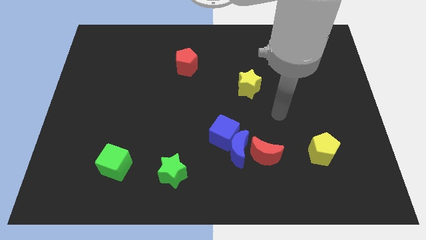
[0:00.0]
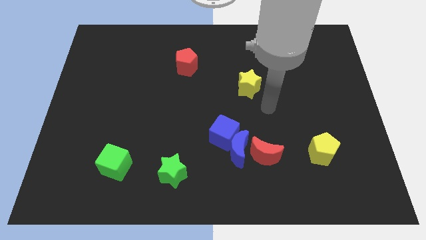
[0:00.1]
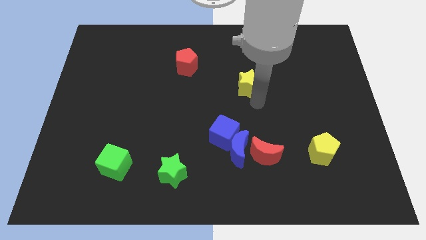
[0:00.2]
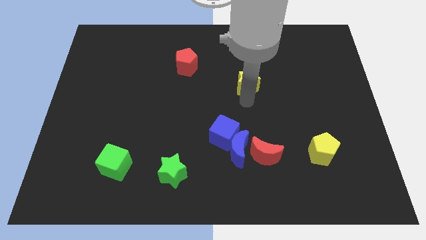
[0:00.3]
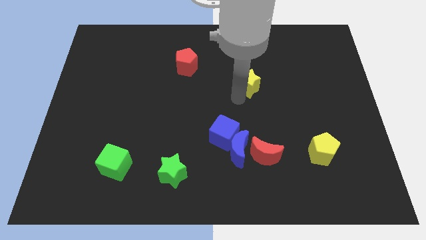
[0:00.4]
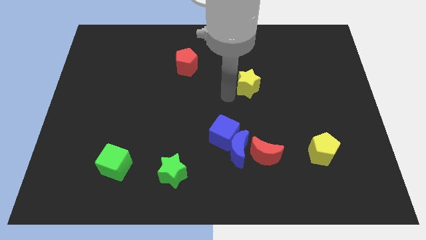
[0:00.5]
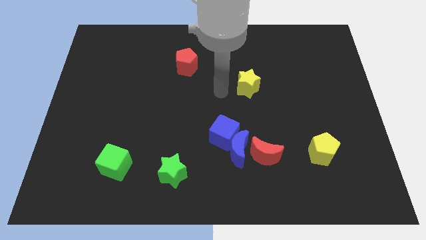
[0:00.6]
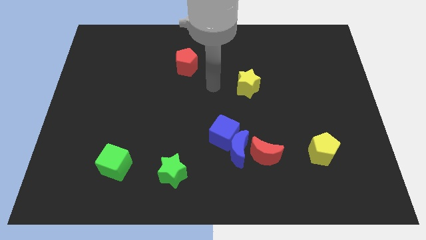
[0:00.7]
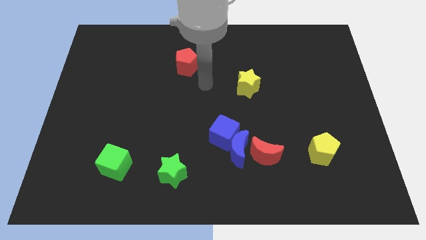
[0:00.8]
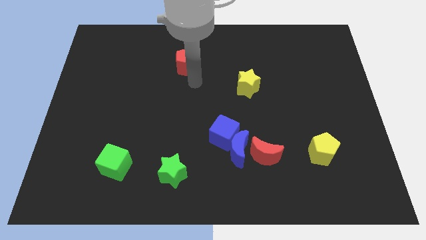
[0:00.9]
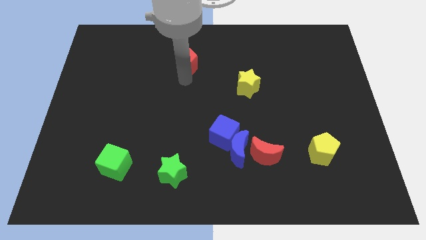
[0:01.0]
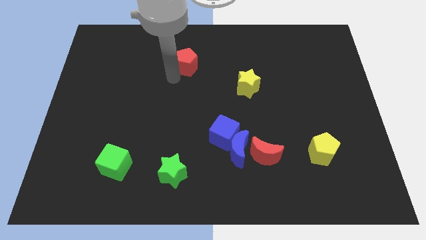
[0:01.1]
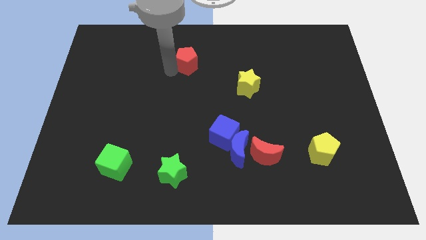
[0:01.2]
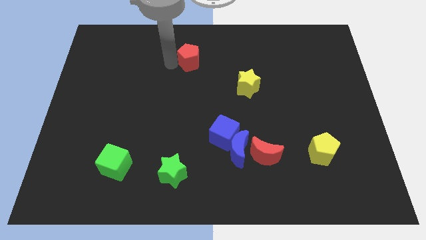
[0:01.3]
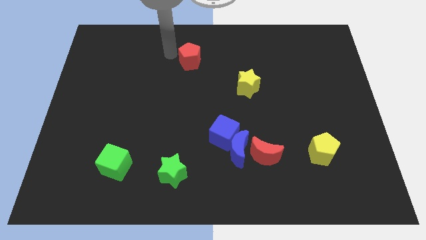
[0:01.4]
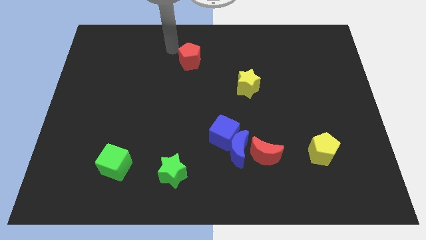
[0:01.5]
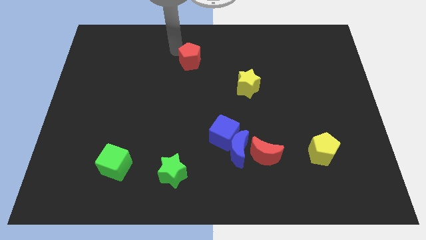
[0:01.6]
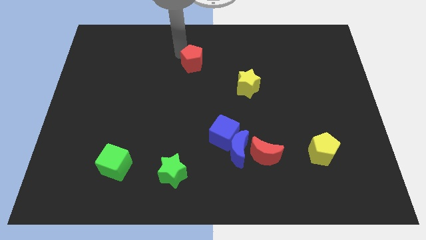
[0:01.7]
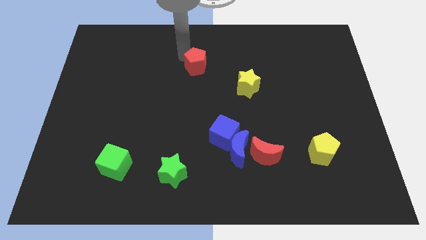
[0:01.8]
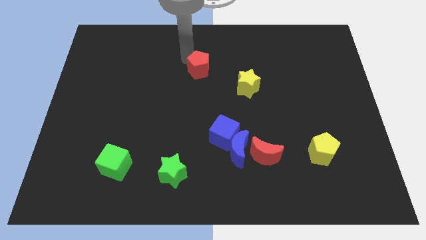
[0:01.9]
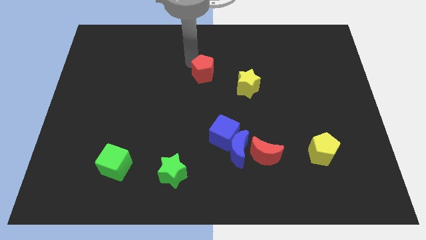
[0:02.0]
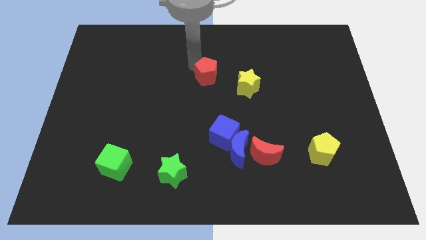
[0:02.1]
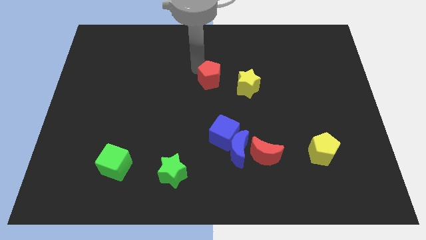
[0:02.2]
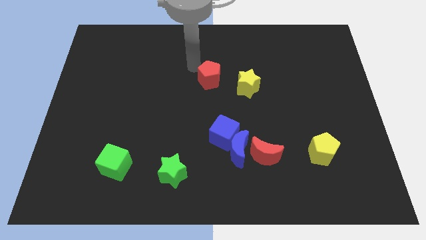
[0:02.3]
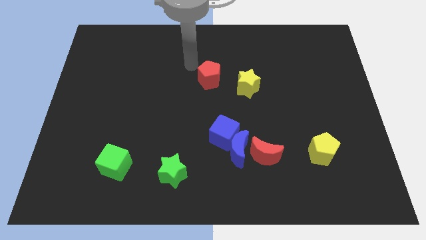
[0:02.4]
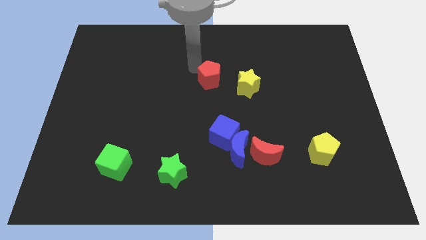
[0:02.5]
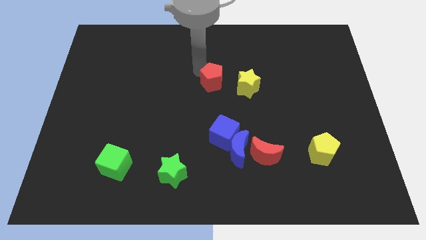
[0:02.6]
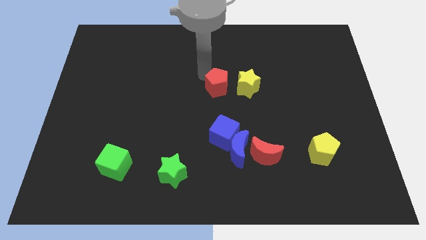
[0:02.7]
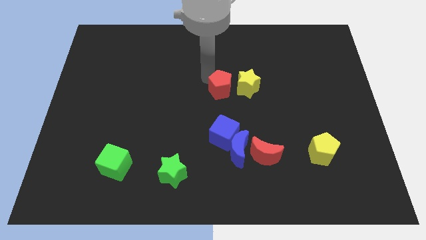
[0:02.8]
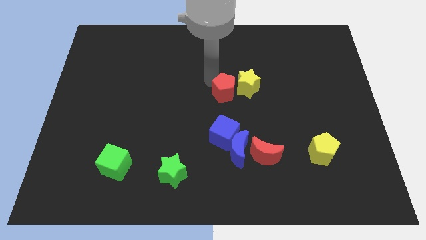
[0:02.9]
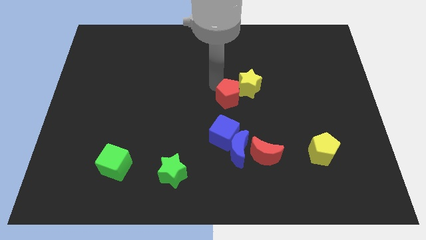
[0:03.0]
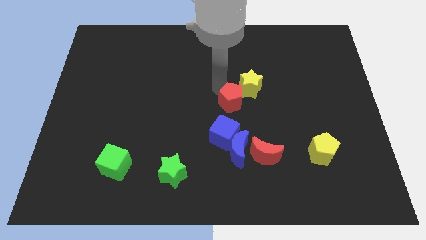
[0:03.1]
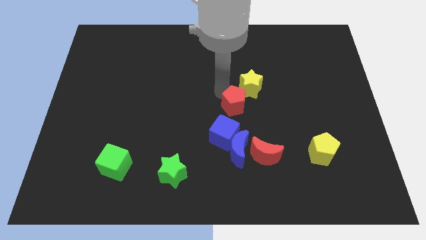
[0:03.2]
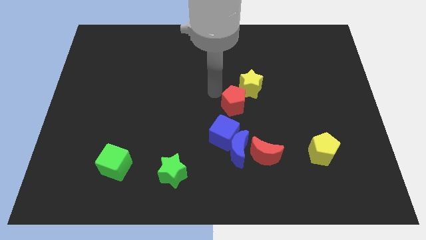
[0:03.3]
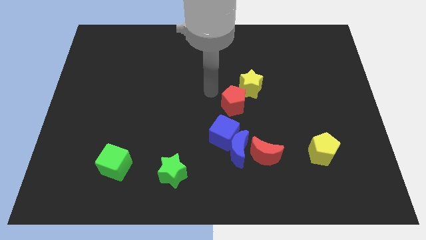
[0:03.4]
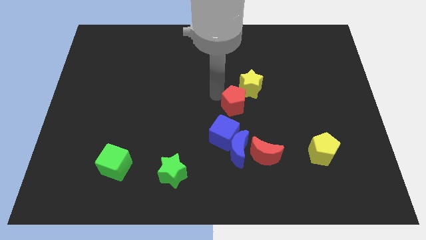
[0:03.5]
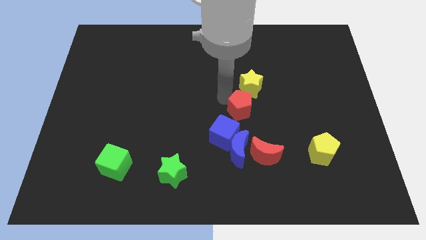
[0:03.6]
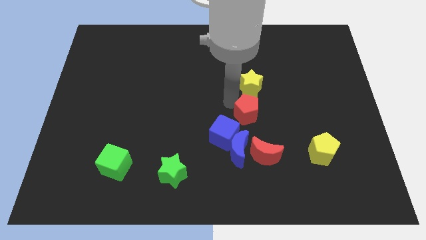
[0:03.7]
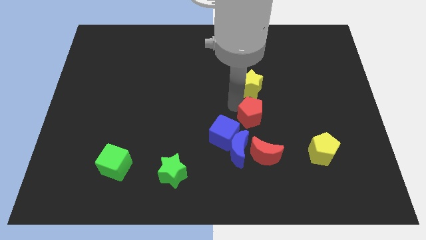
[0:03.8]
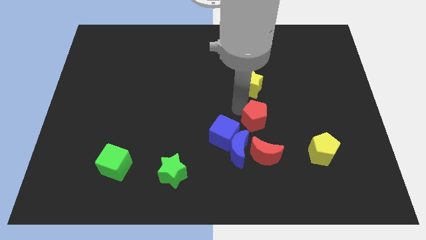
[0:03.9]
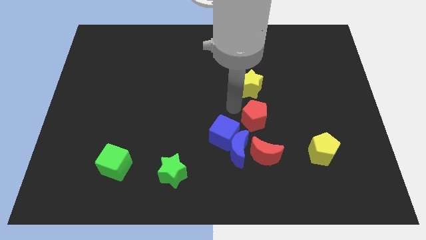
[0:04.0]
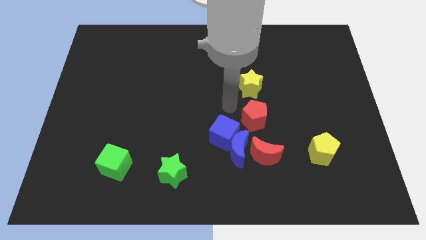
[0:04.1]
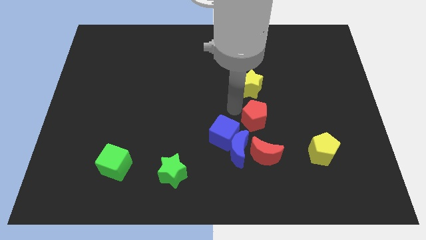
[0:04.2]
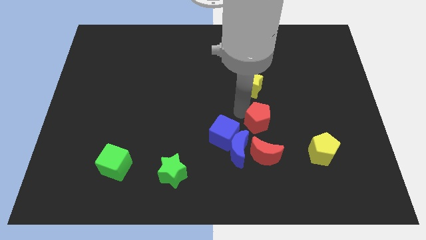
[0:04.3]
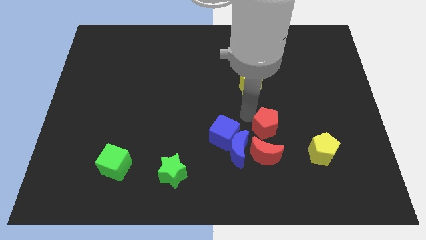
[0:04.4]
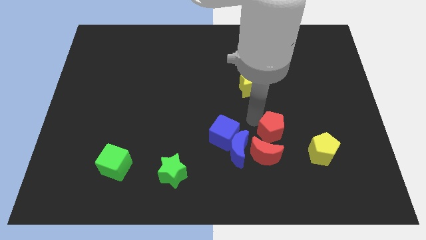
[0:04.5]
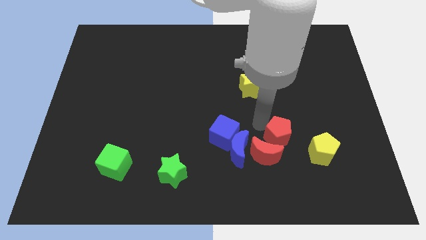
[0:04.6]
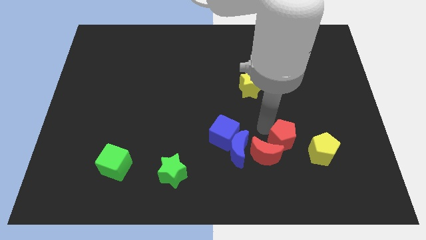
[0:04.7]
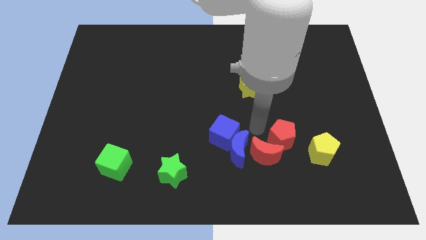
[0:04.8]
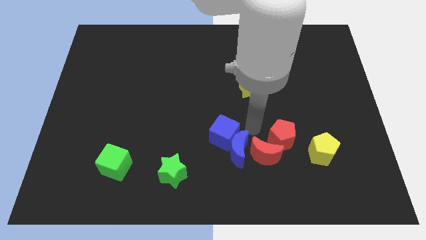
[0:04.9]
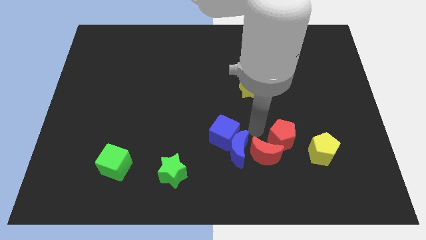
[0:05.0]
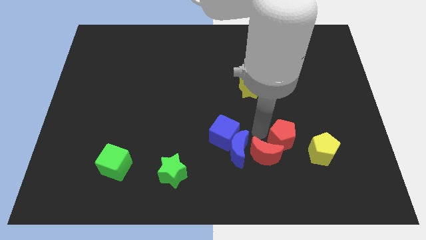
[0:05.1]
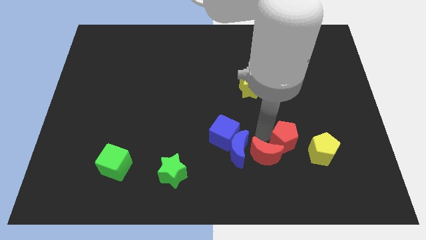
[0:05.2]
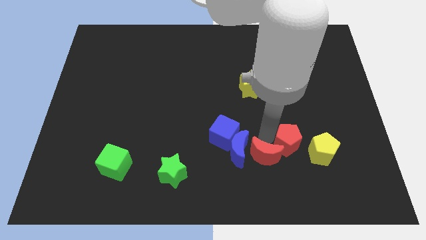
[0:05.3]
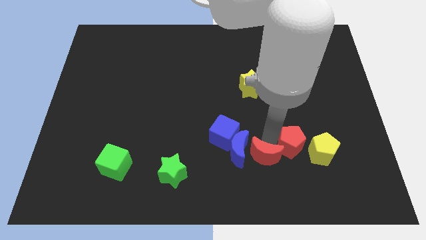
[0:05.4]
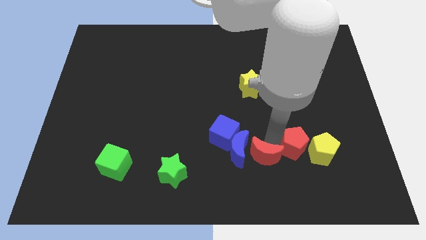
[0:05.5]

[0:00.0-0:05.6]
put the red pentagon close to the yellow pentagon
